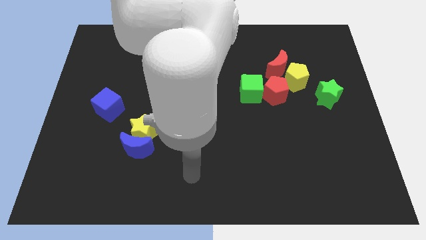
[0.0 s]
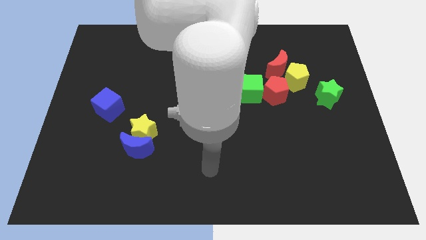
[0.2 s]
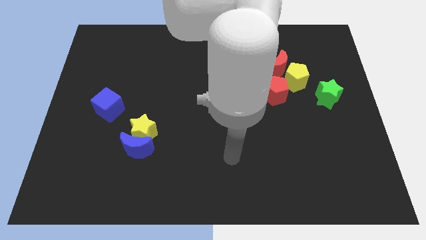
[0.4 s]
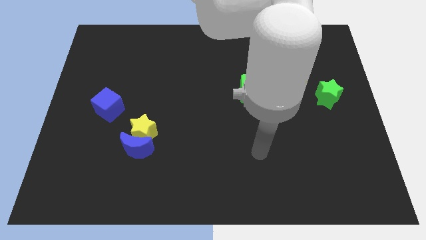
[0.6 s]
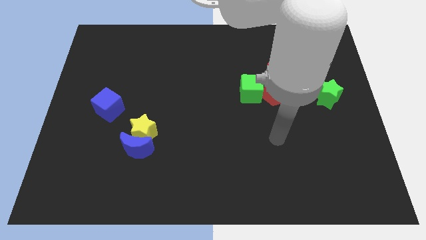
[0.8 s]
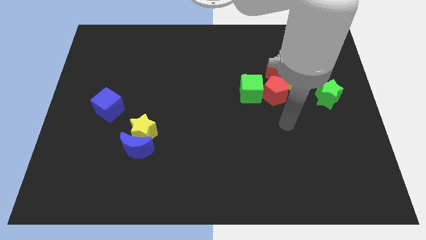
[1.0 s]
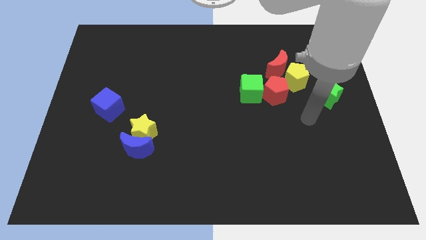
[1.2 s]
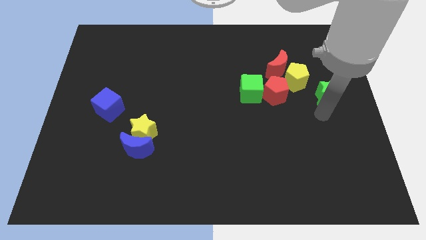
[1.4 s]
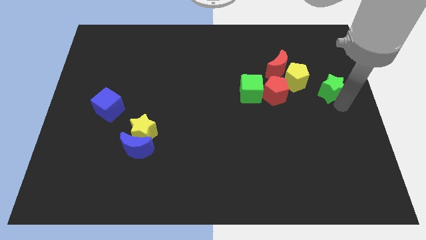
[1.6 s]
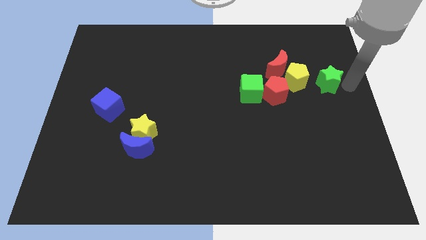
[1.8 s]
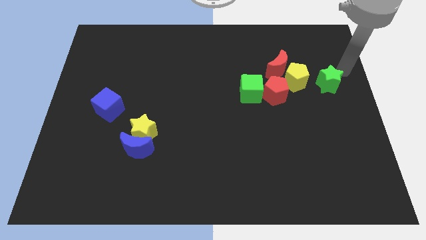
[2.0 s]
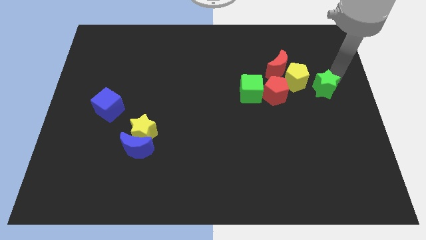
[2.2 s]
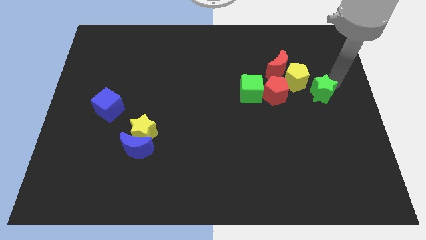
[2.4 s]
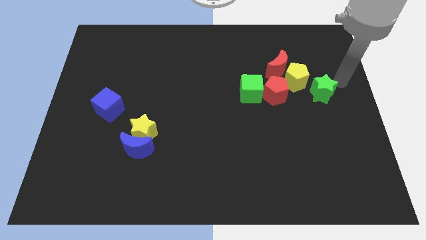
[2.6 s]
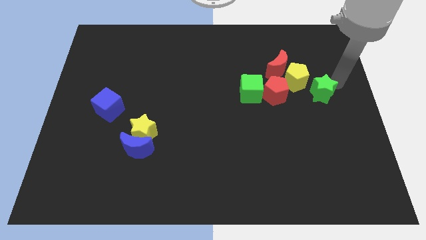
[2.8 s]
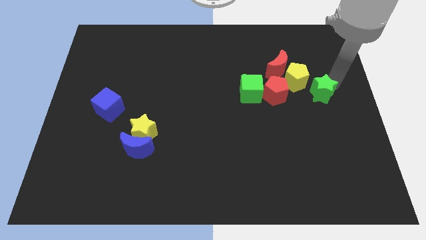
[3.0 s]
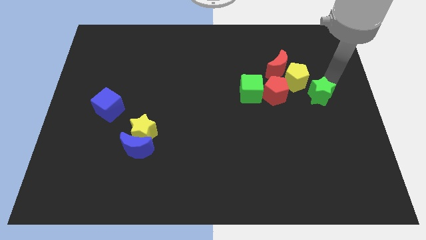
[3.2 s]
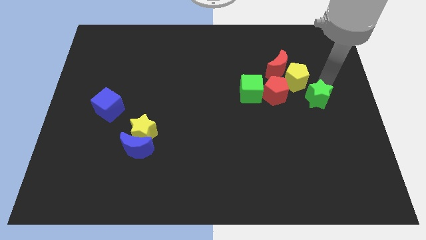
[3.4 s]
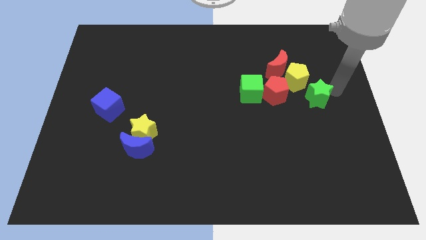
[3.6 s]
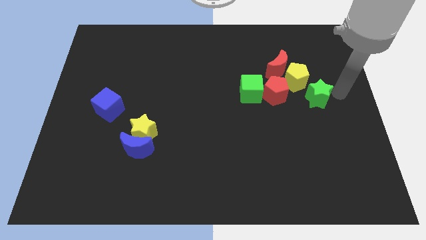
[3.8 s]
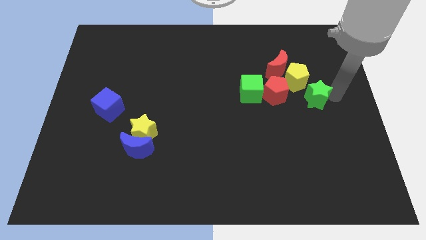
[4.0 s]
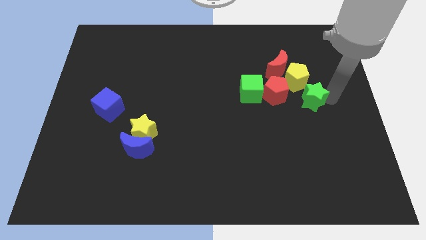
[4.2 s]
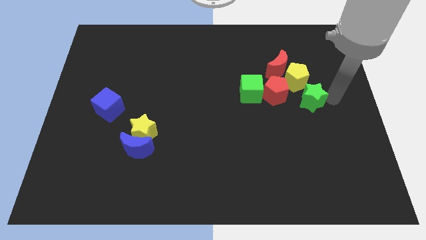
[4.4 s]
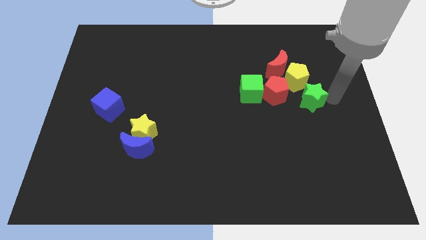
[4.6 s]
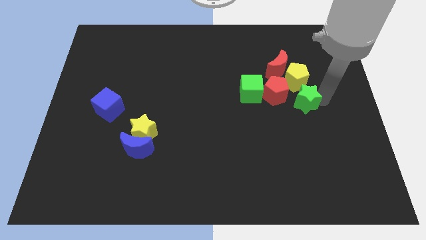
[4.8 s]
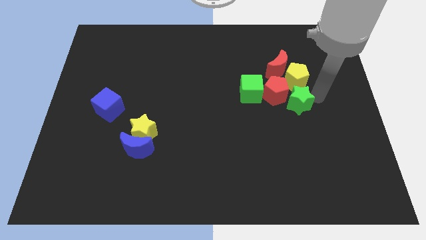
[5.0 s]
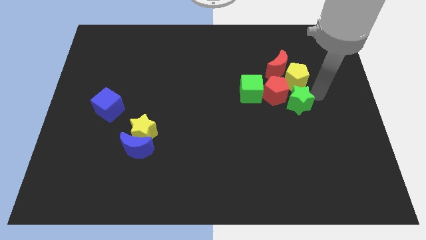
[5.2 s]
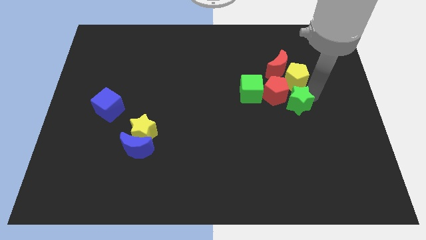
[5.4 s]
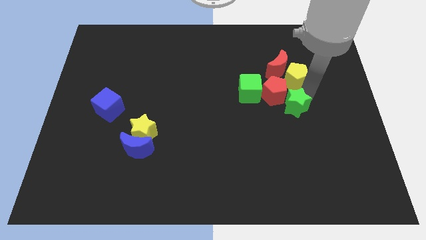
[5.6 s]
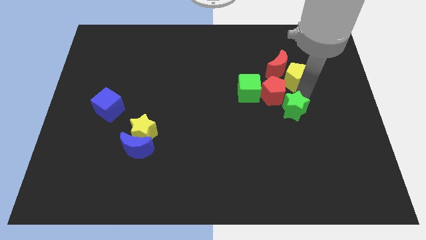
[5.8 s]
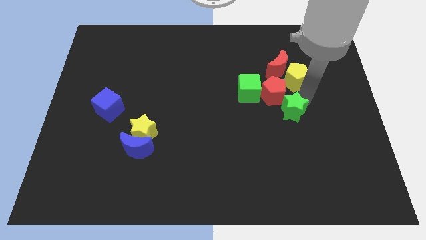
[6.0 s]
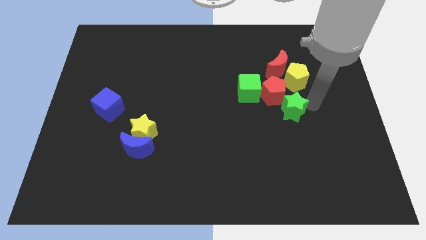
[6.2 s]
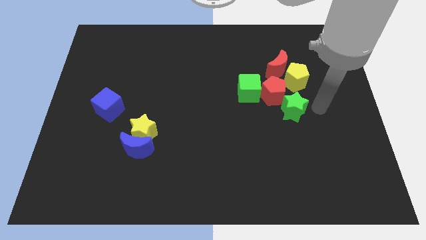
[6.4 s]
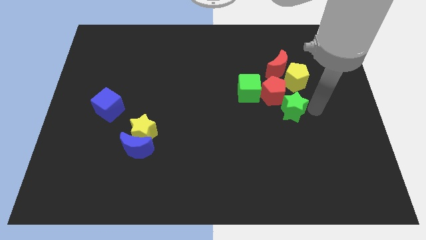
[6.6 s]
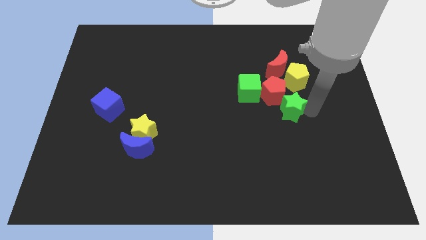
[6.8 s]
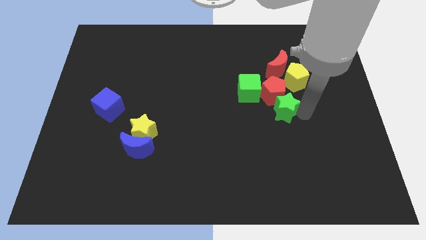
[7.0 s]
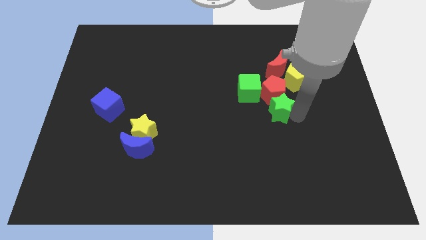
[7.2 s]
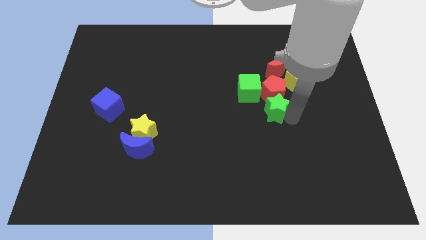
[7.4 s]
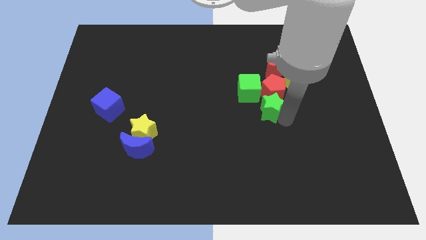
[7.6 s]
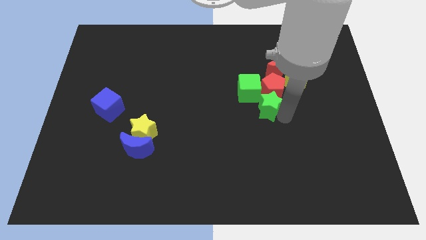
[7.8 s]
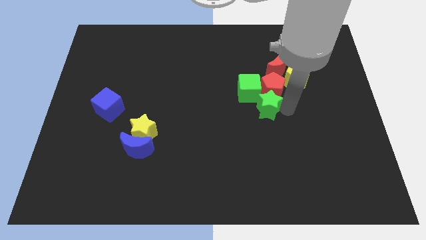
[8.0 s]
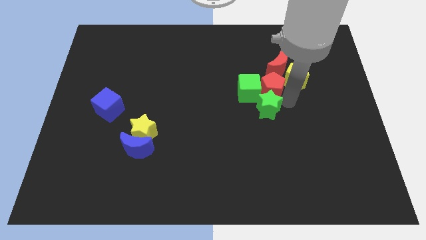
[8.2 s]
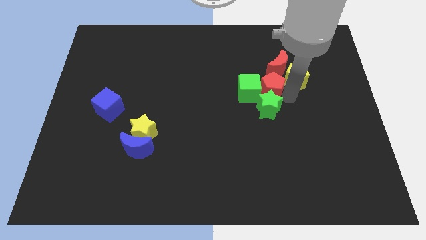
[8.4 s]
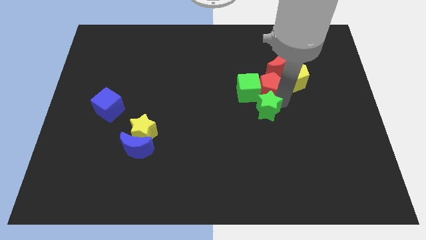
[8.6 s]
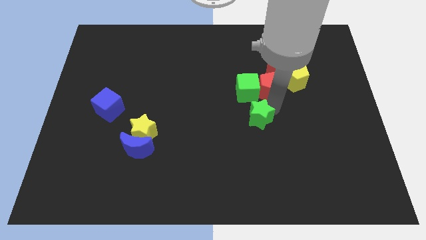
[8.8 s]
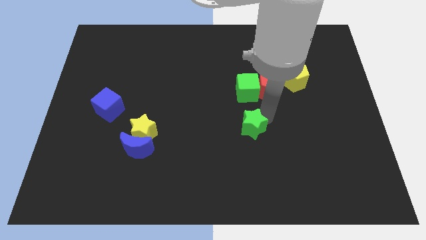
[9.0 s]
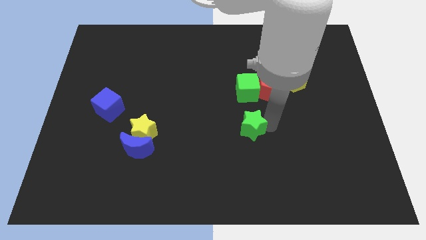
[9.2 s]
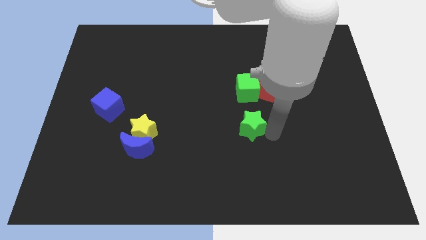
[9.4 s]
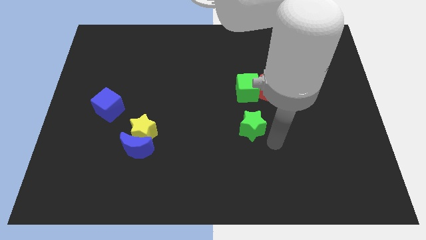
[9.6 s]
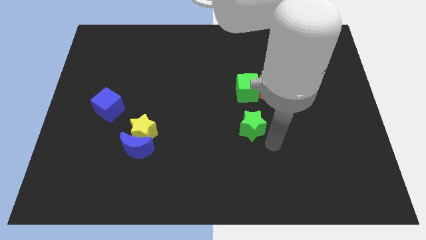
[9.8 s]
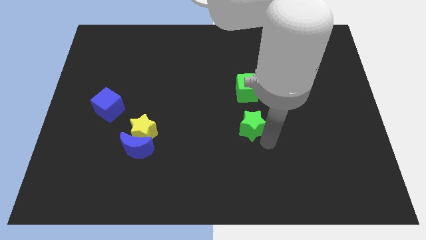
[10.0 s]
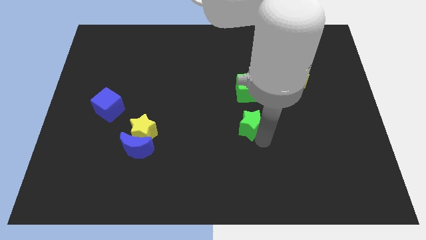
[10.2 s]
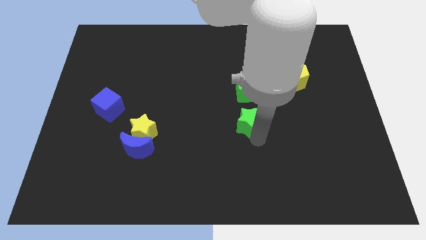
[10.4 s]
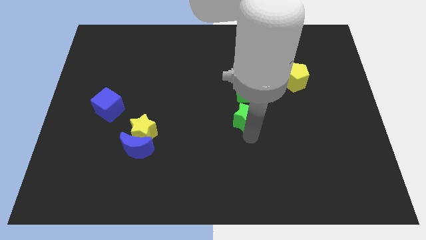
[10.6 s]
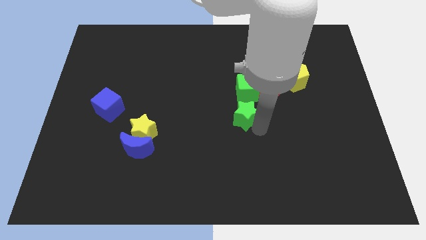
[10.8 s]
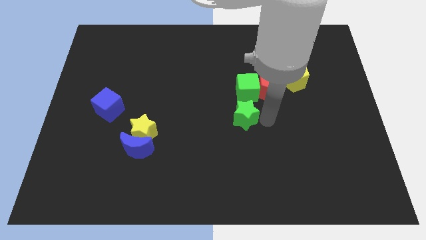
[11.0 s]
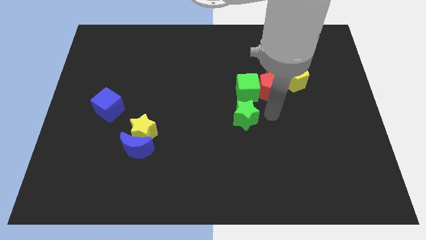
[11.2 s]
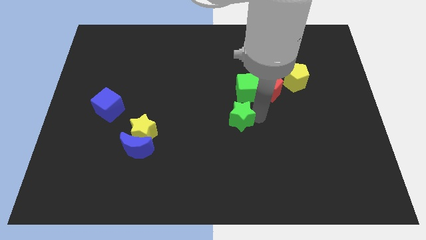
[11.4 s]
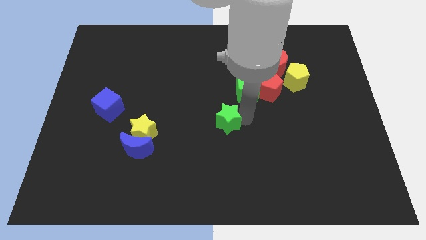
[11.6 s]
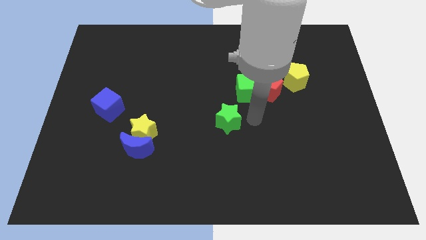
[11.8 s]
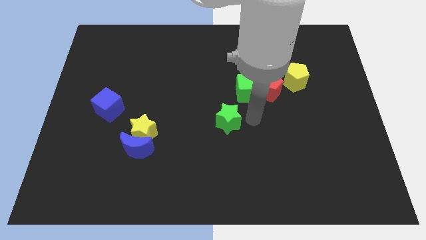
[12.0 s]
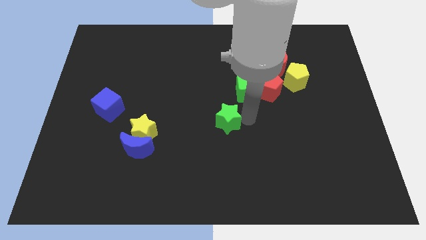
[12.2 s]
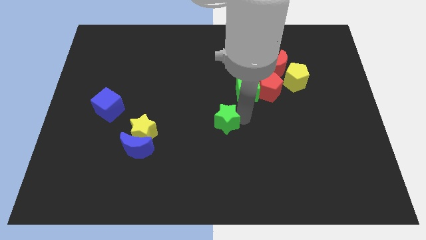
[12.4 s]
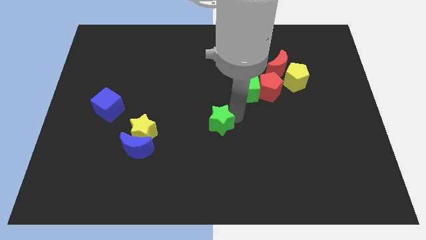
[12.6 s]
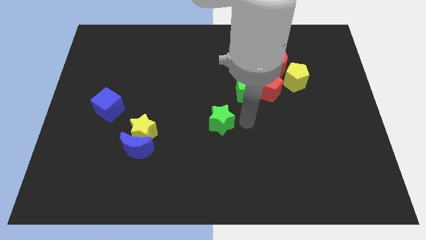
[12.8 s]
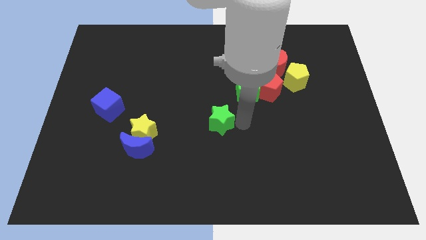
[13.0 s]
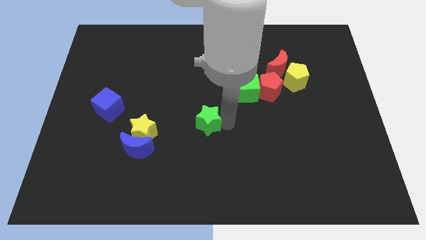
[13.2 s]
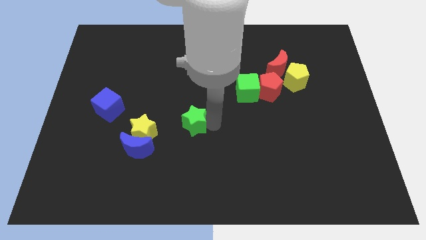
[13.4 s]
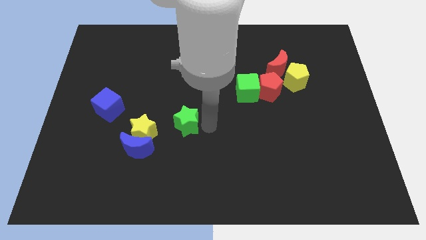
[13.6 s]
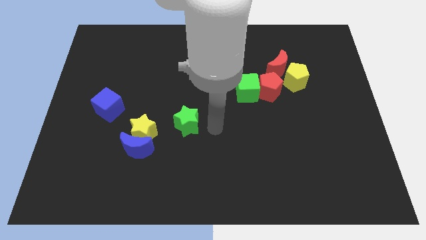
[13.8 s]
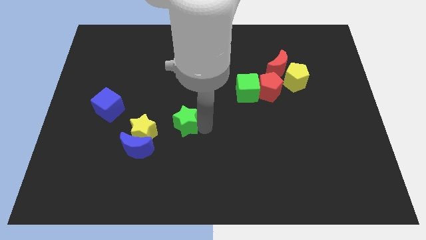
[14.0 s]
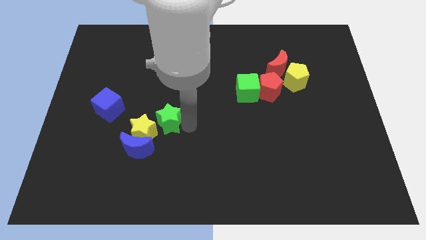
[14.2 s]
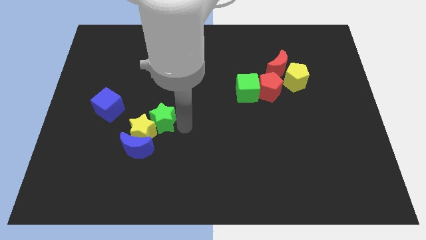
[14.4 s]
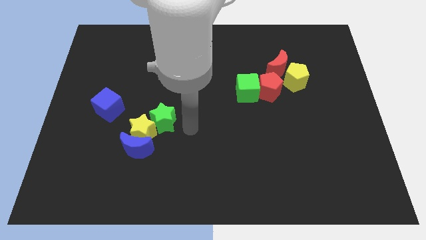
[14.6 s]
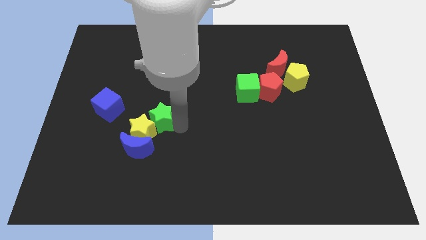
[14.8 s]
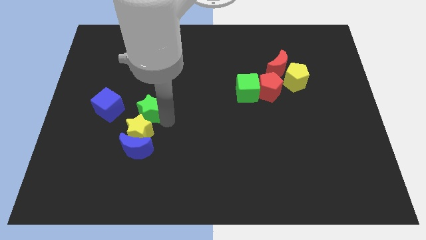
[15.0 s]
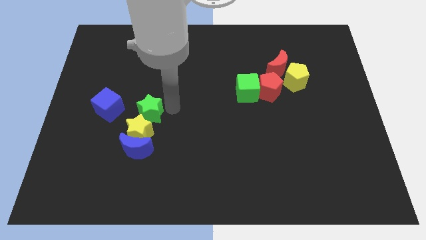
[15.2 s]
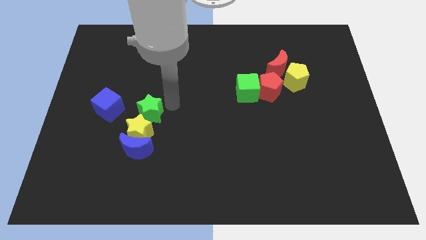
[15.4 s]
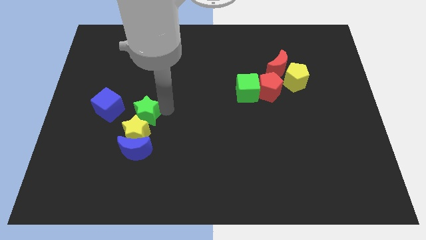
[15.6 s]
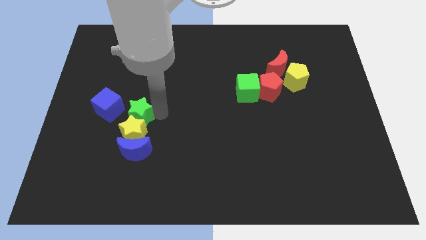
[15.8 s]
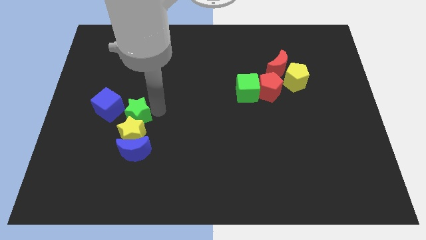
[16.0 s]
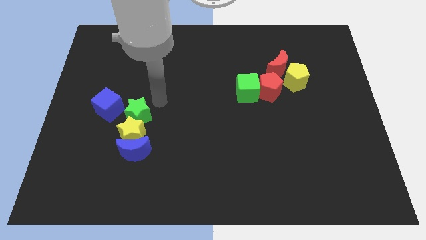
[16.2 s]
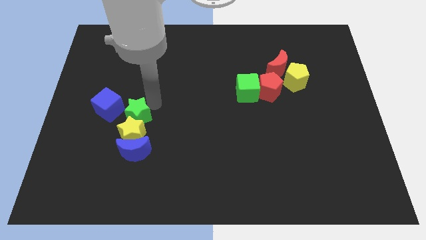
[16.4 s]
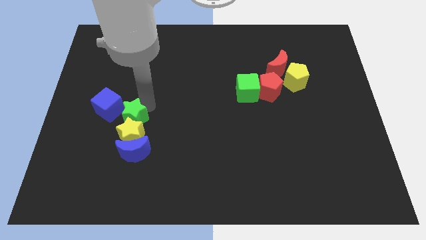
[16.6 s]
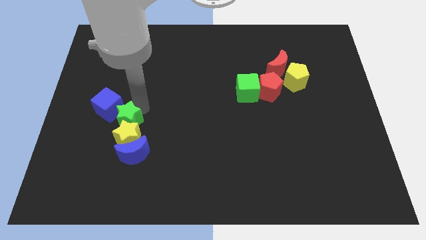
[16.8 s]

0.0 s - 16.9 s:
slide the green star to the top left of the blue moon
